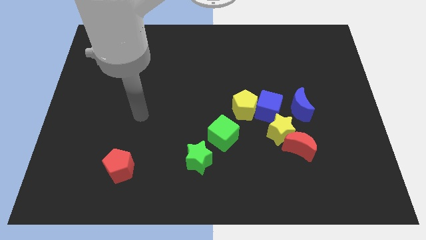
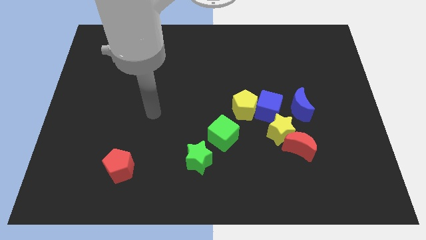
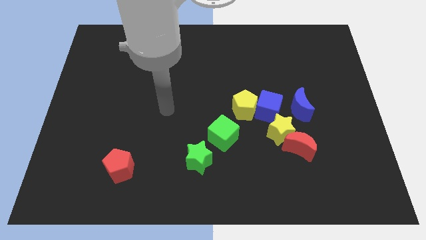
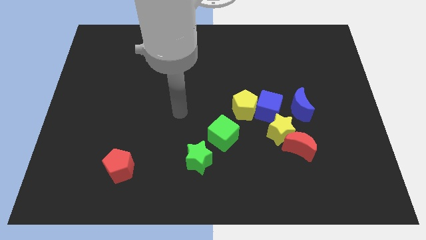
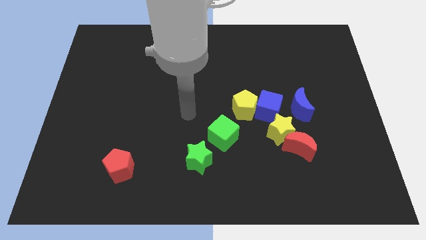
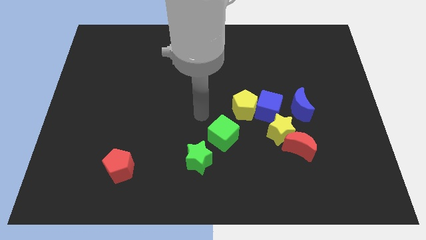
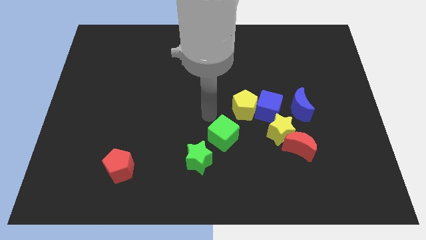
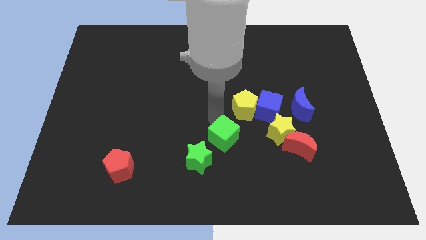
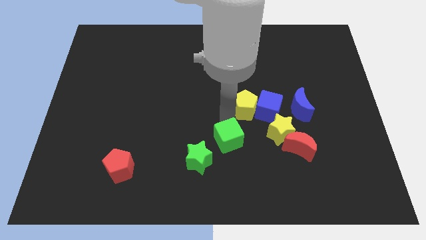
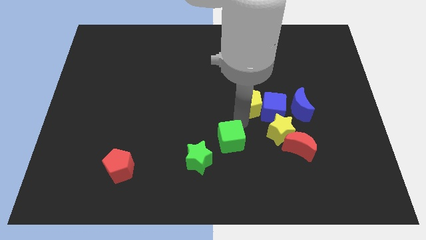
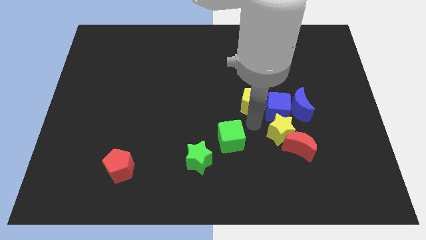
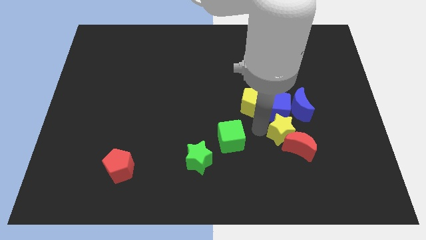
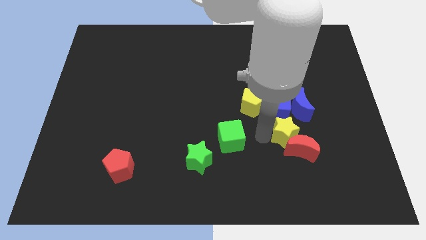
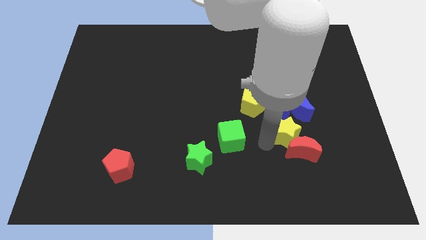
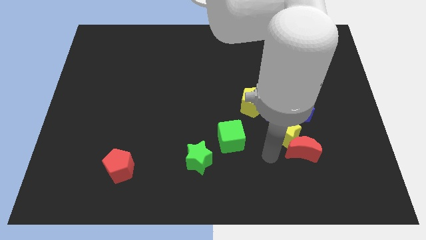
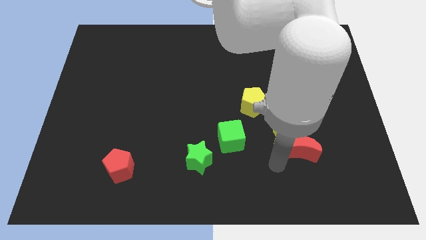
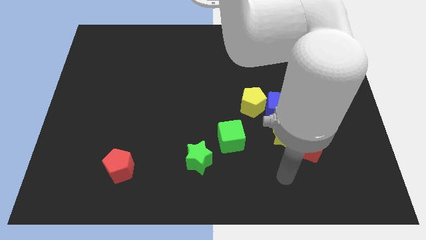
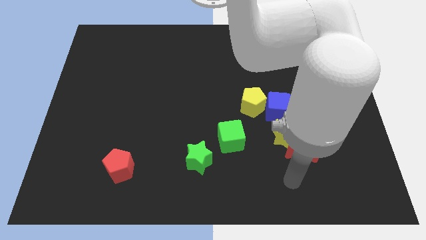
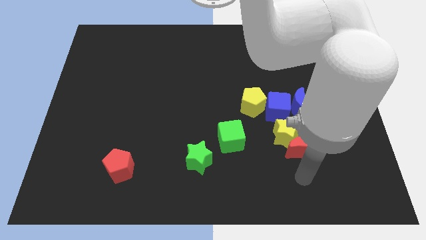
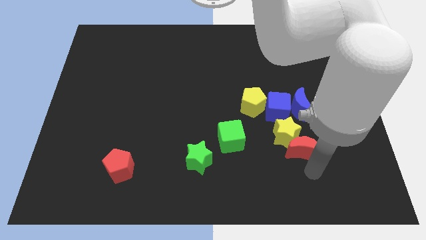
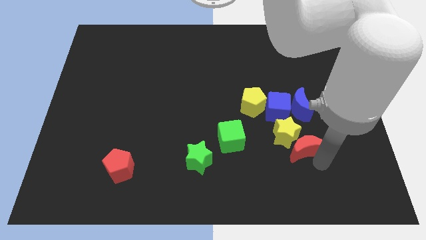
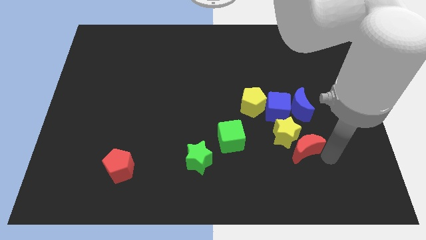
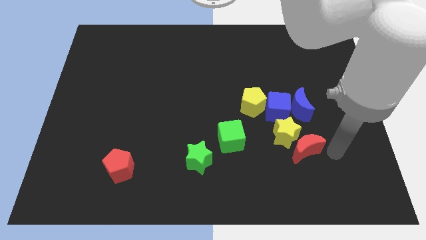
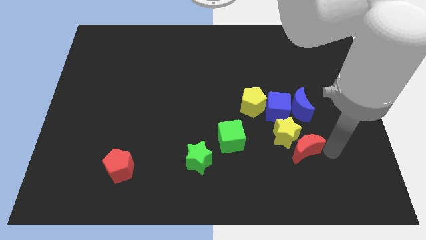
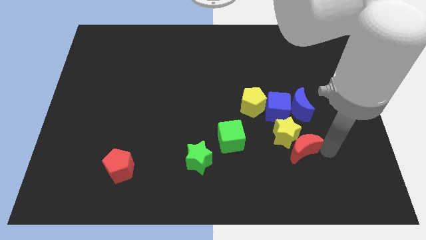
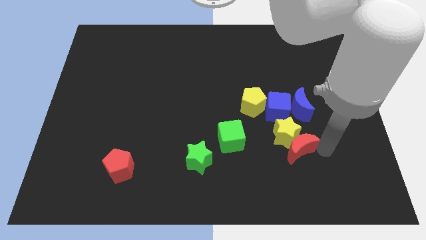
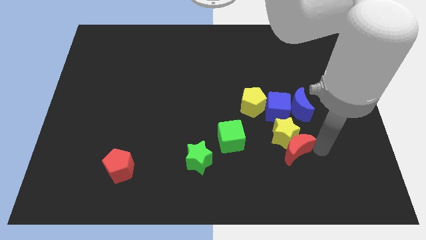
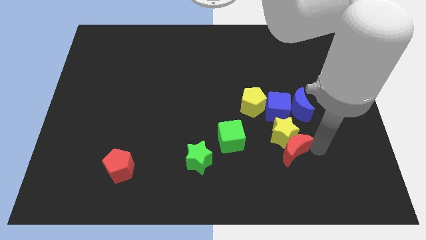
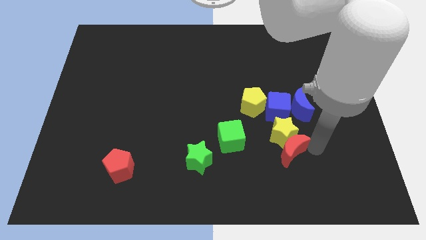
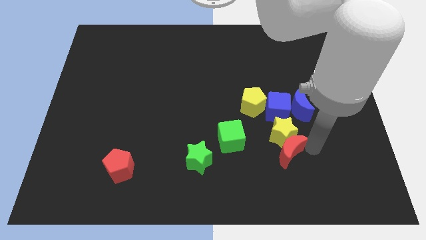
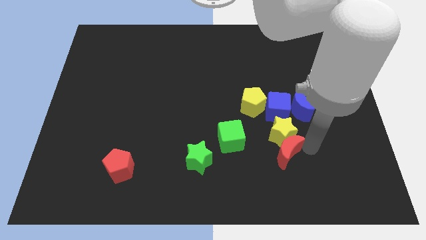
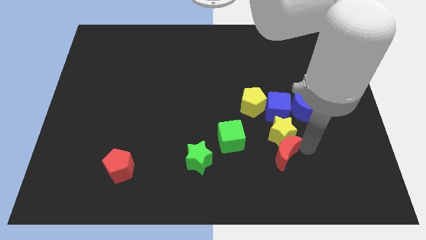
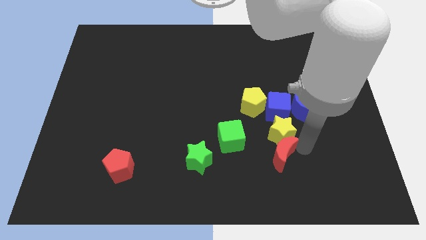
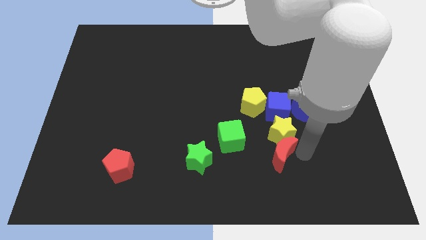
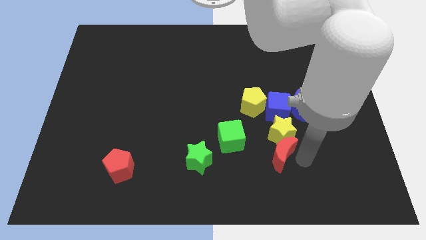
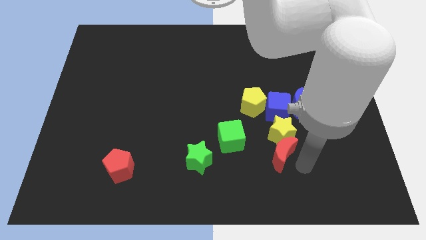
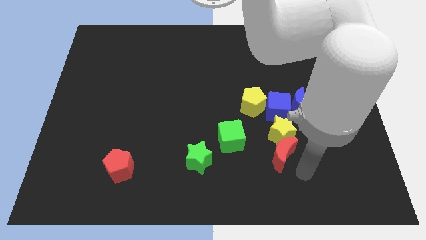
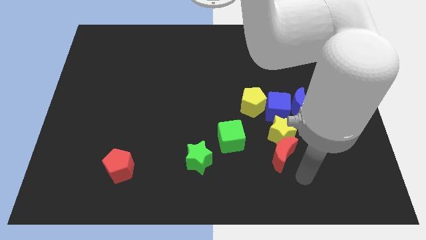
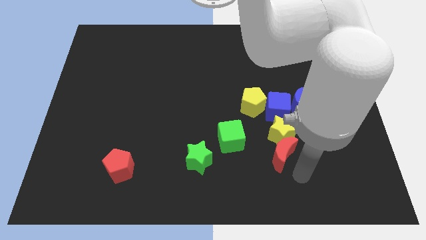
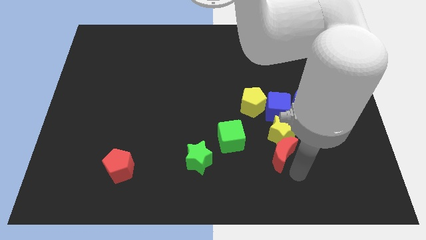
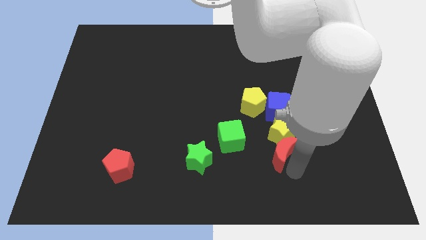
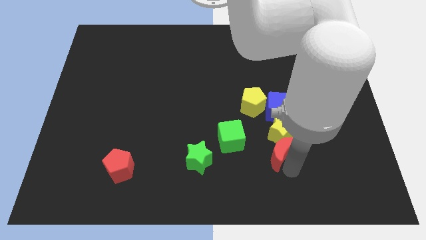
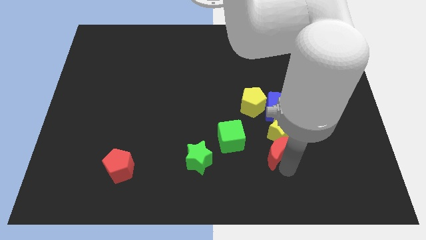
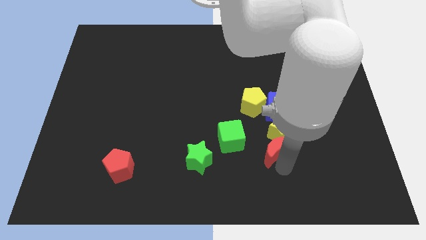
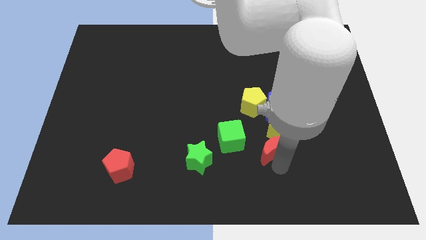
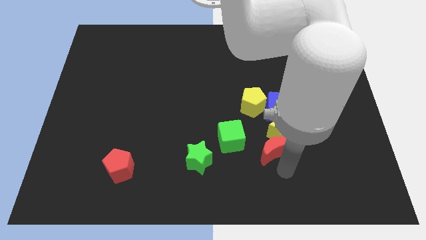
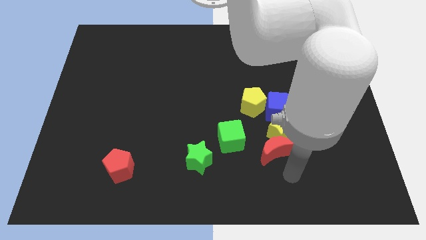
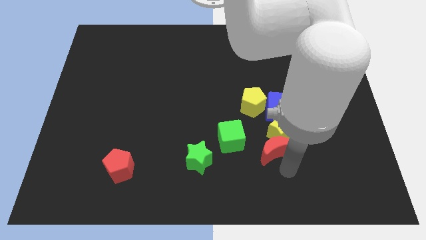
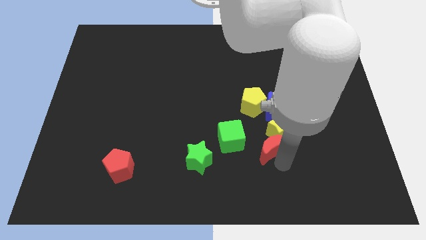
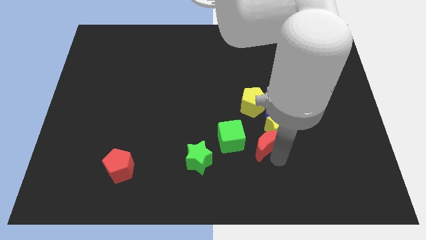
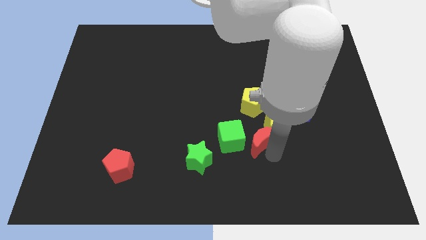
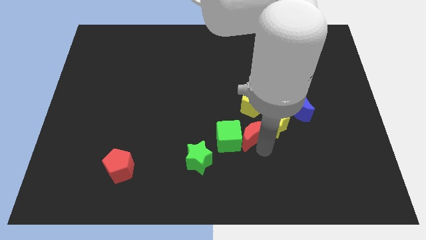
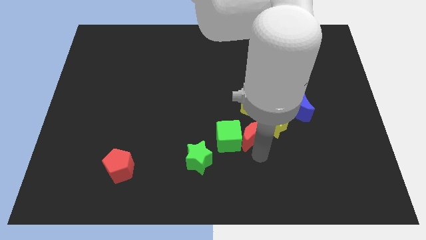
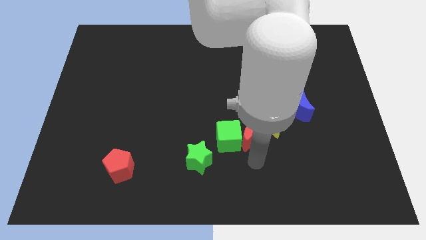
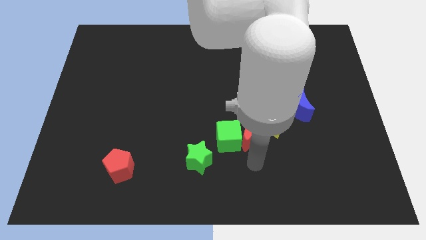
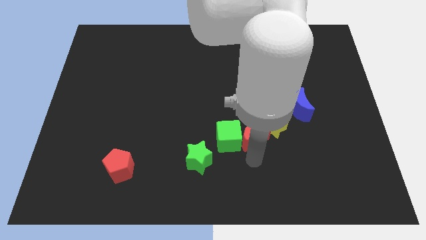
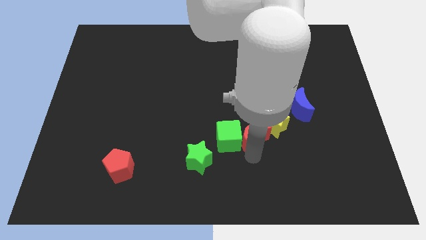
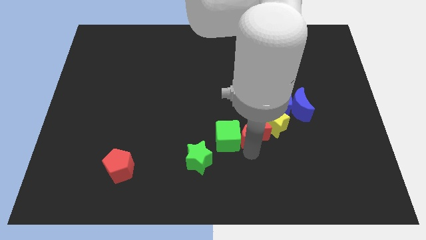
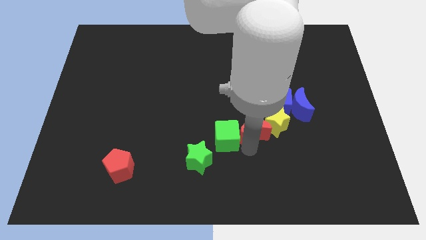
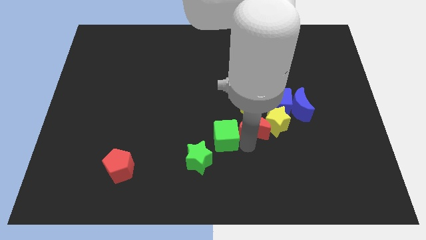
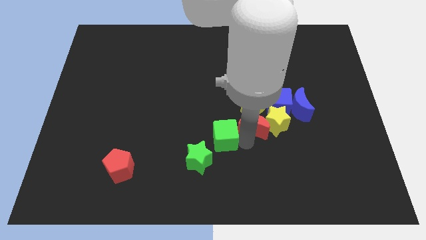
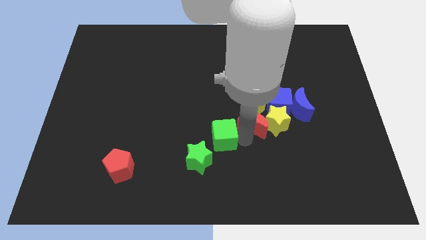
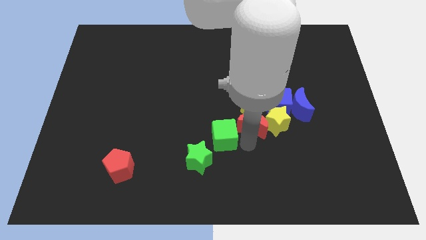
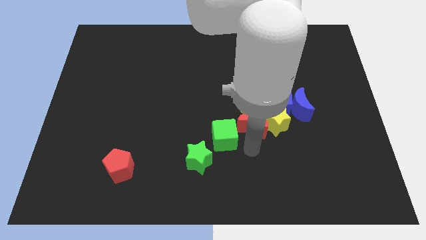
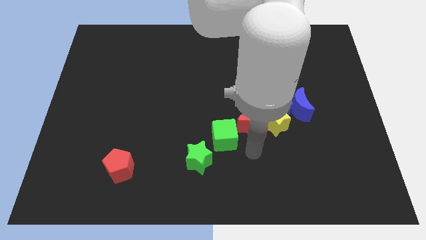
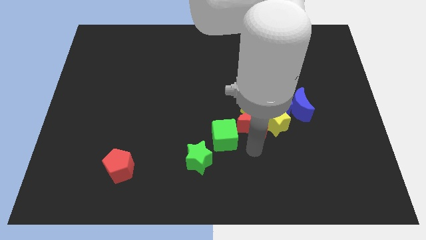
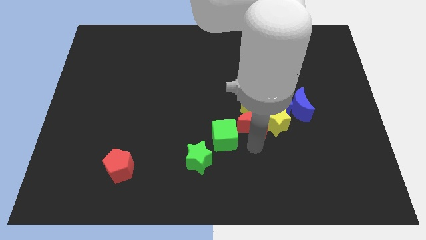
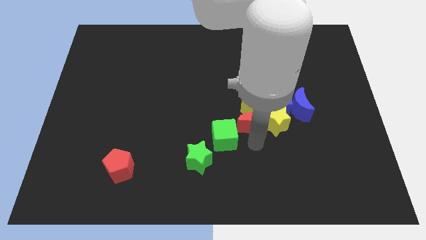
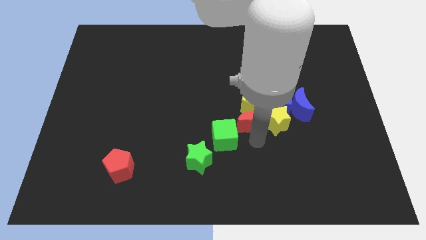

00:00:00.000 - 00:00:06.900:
push the red moon to the yellow pentagon
